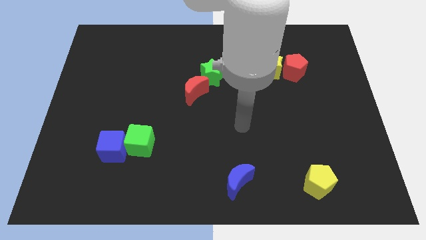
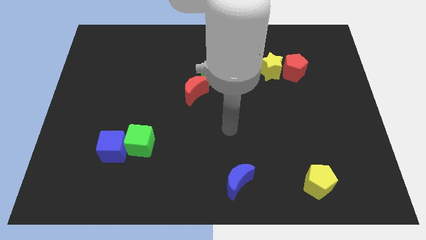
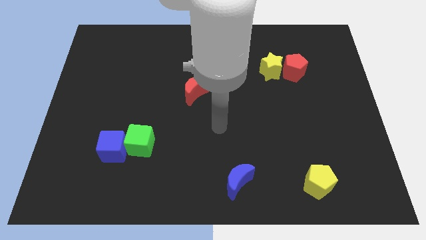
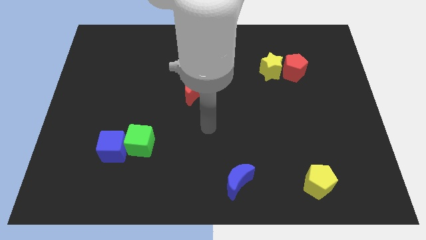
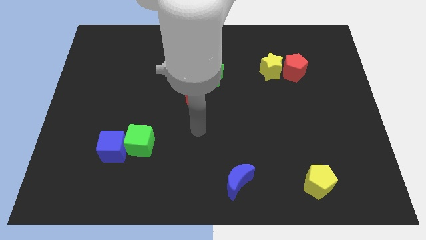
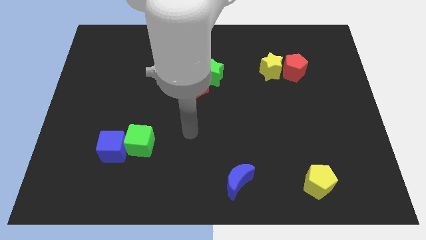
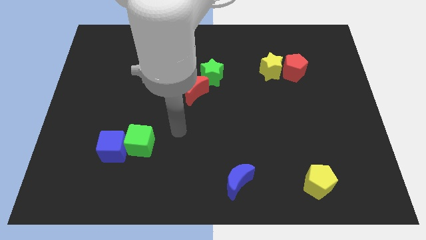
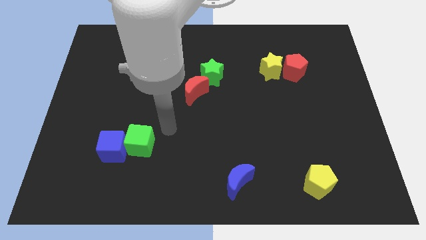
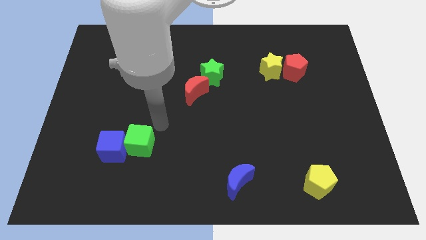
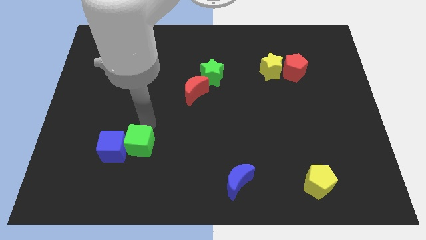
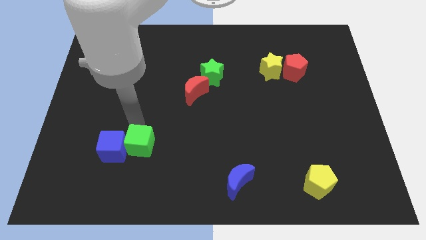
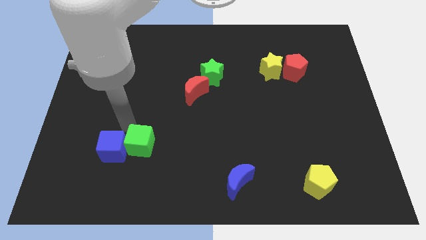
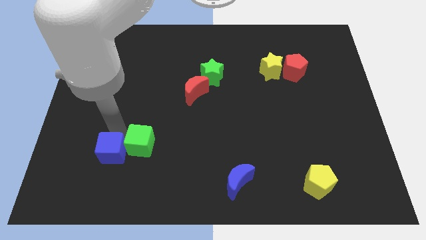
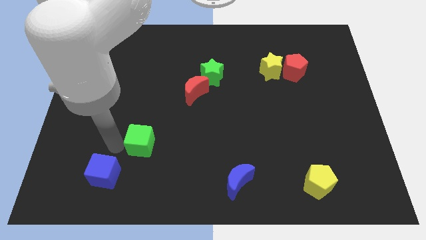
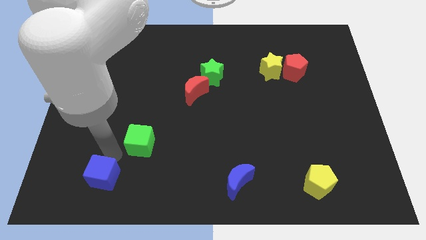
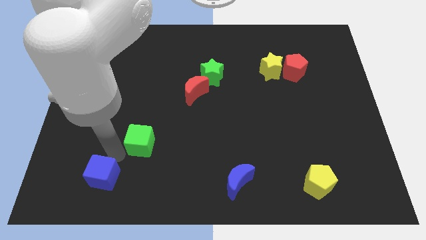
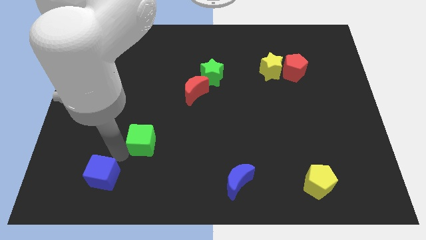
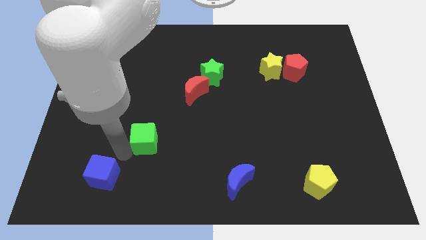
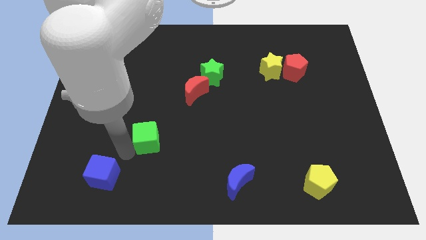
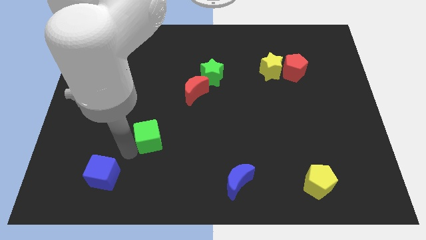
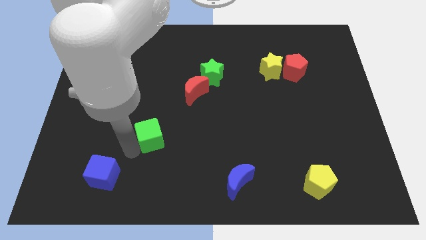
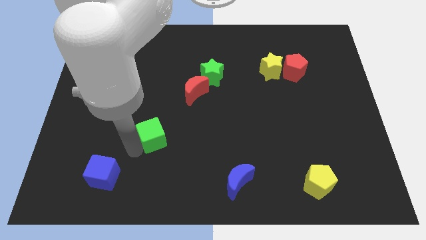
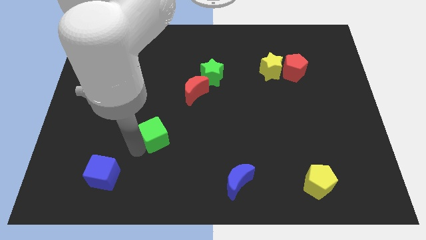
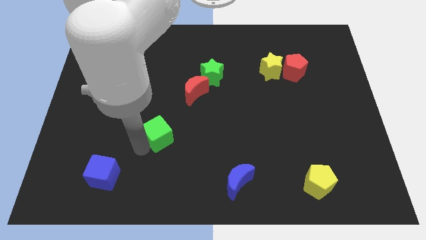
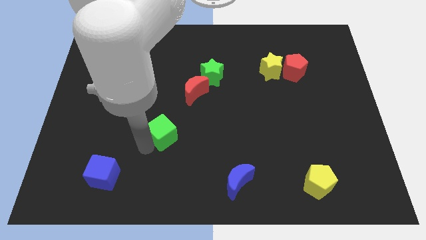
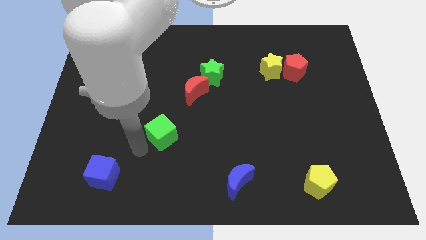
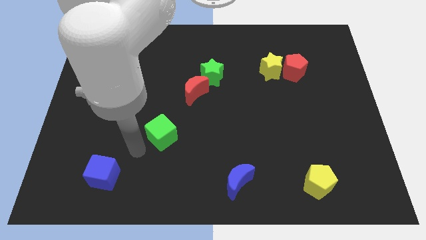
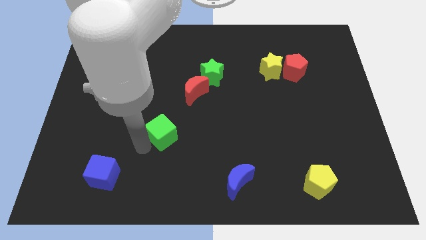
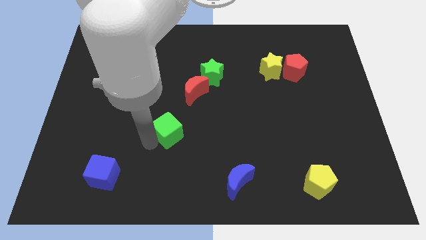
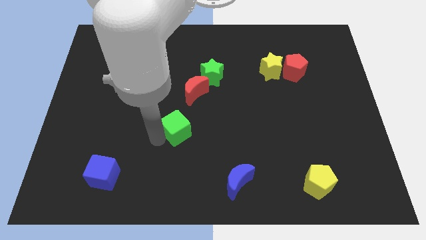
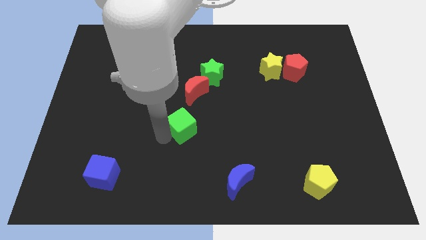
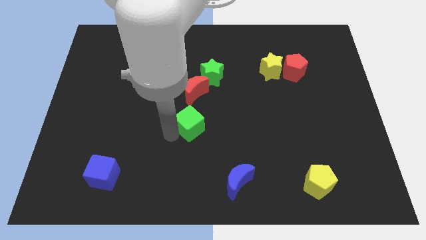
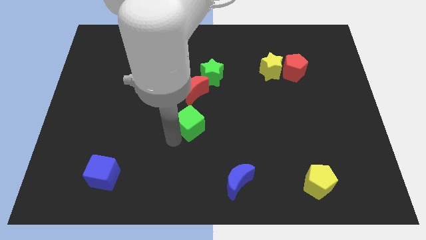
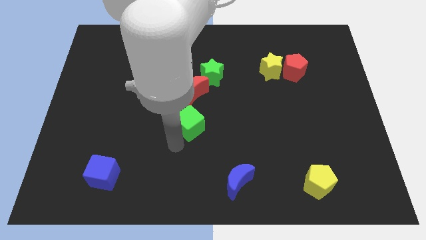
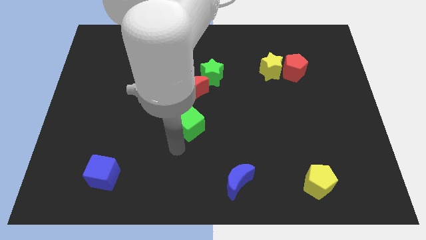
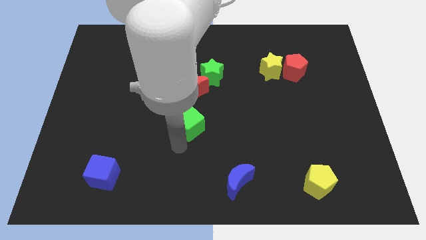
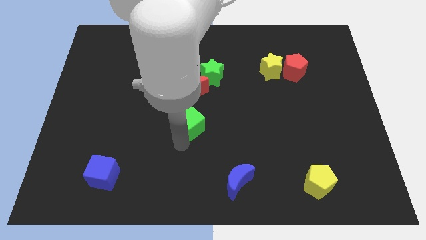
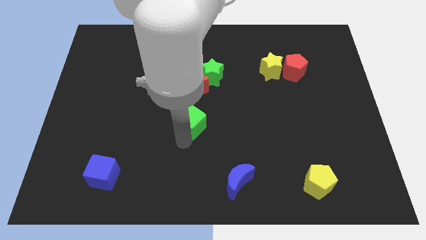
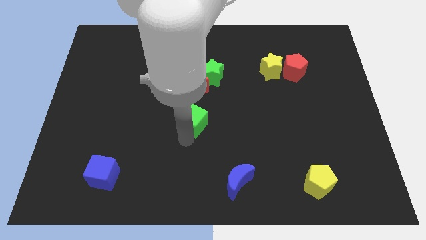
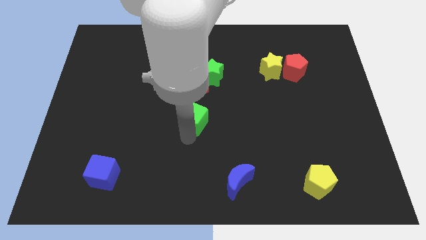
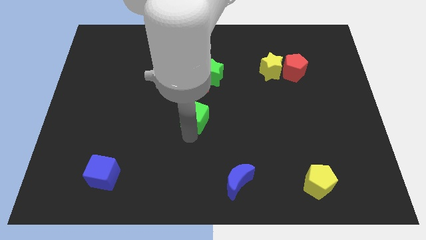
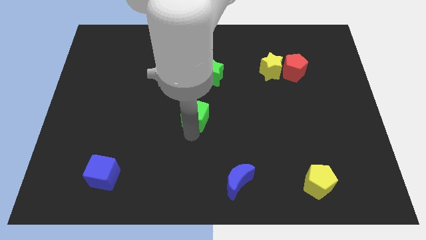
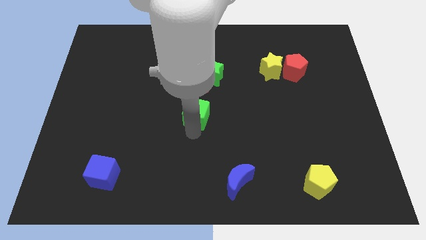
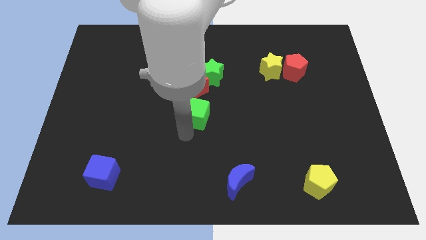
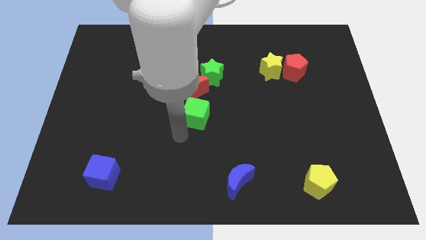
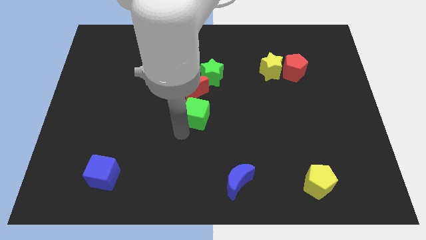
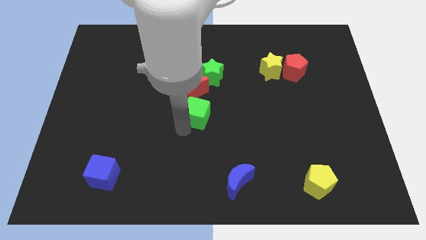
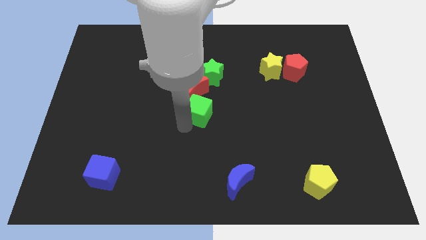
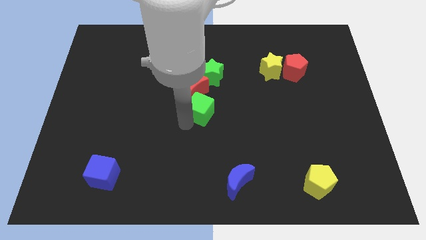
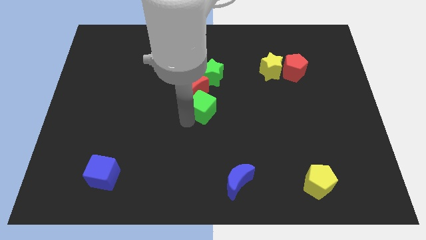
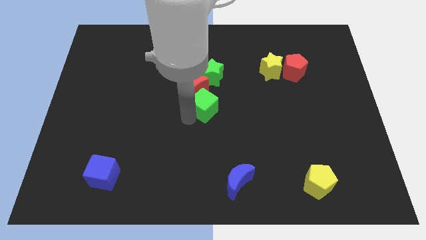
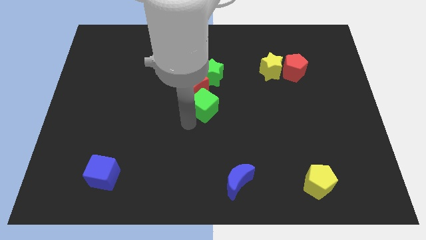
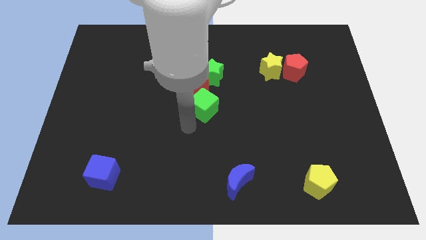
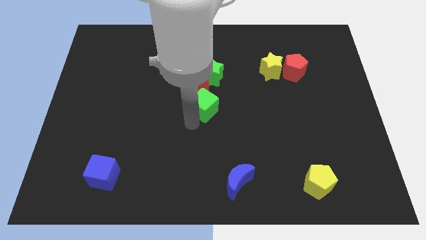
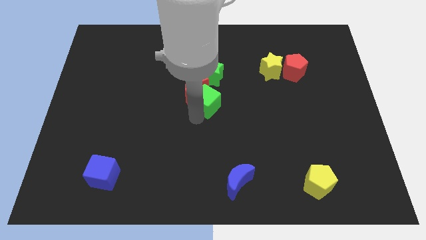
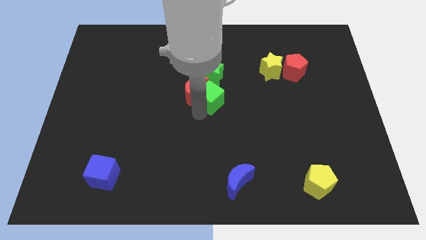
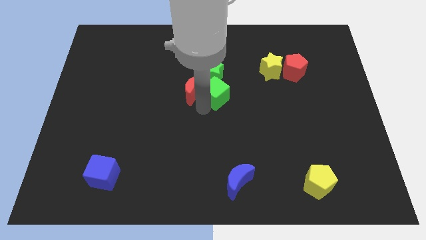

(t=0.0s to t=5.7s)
move the green cube diagonally upwards and to the right

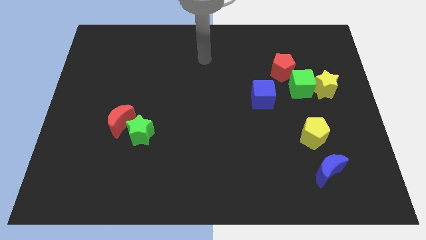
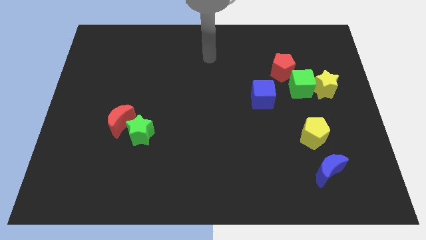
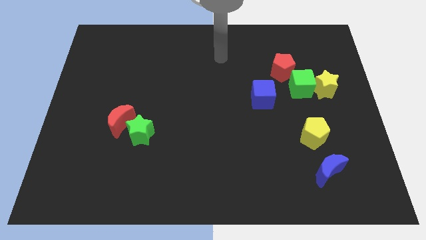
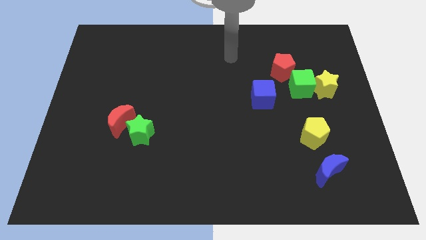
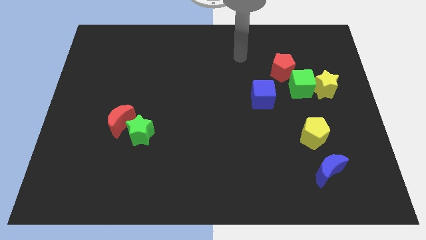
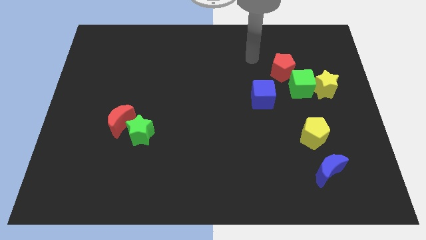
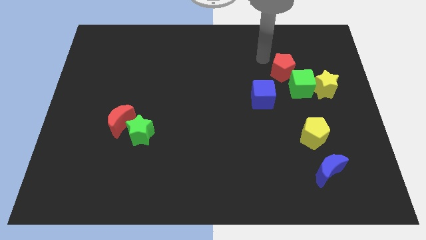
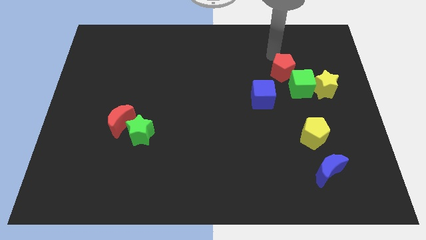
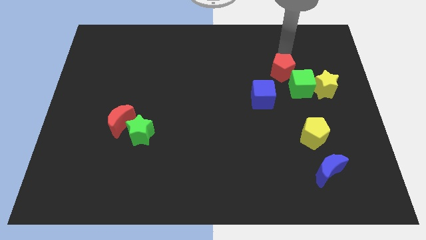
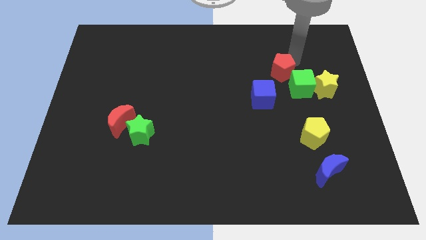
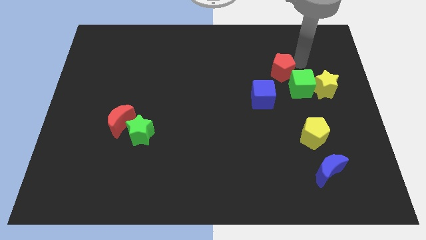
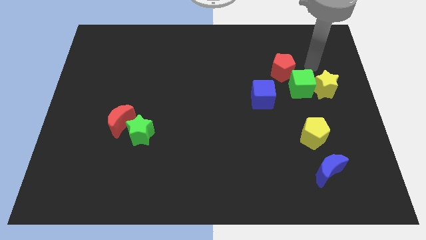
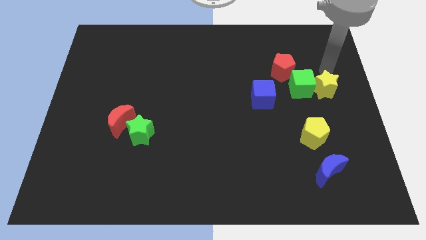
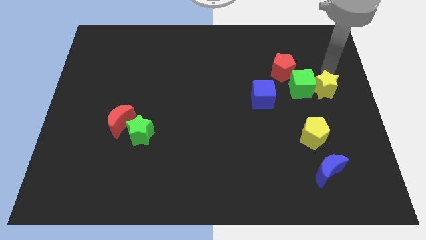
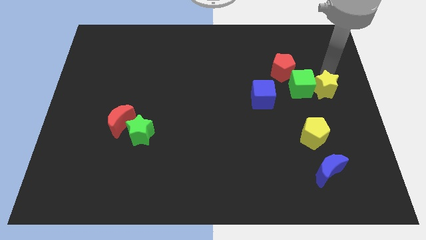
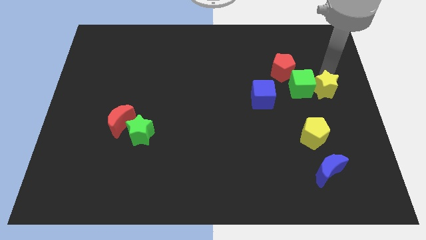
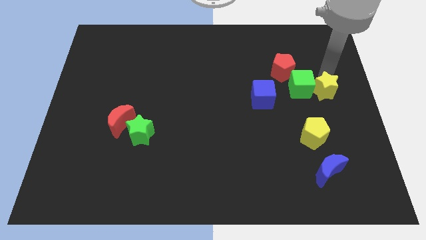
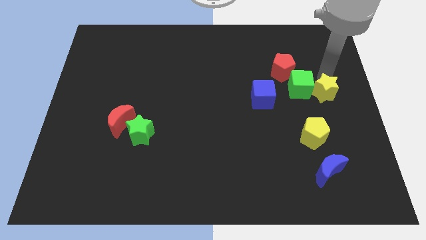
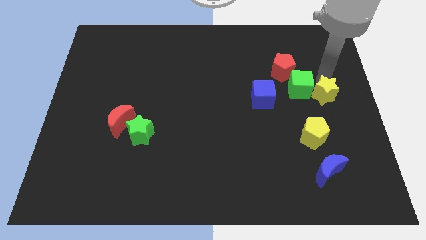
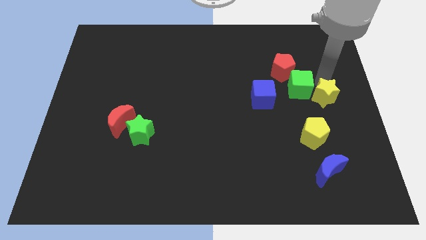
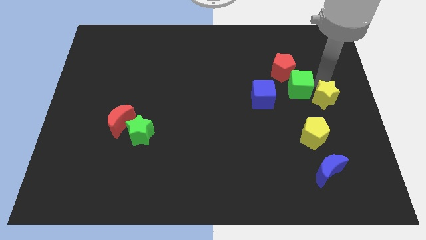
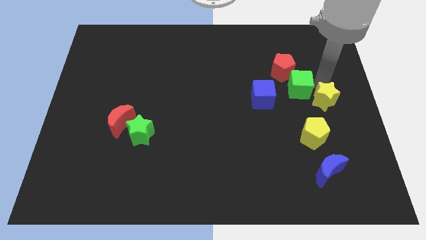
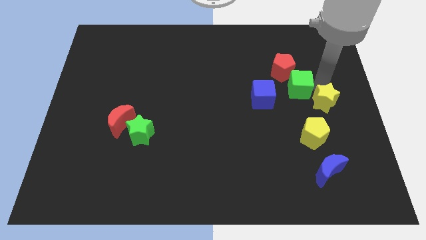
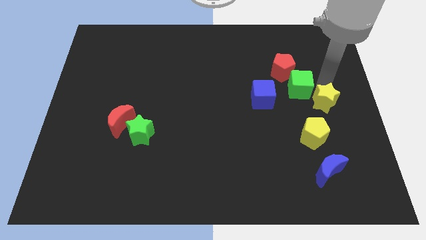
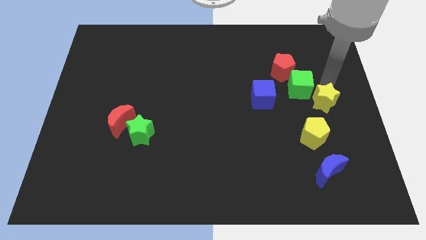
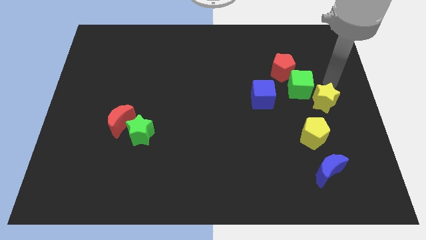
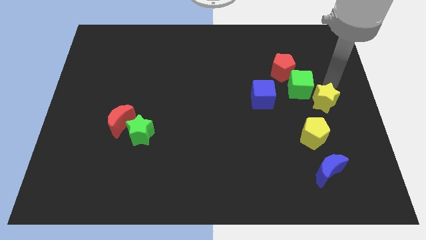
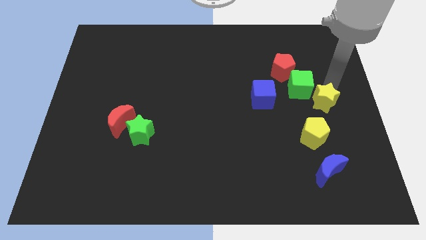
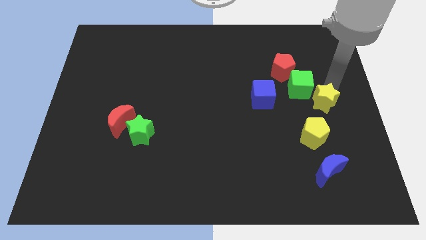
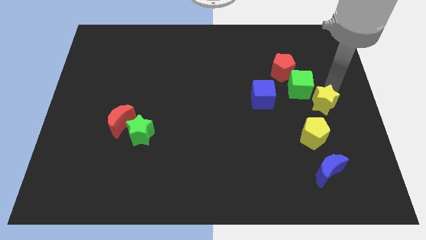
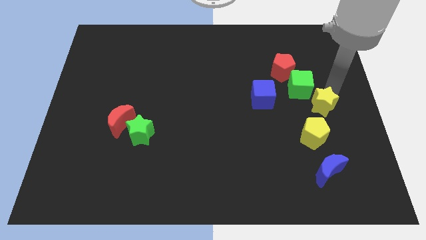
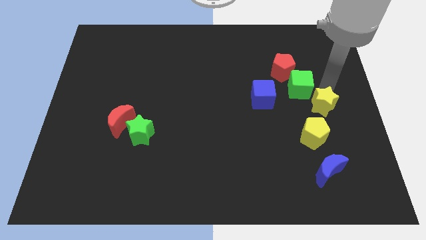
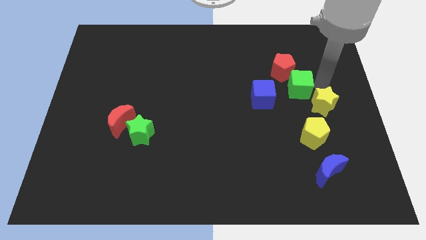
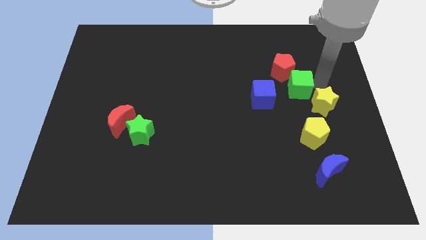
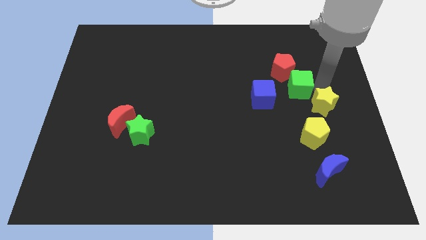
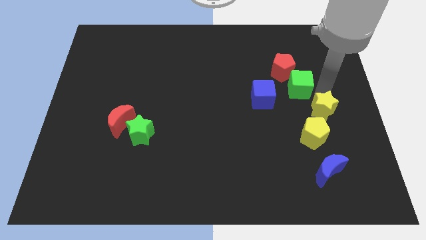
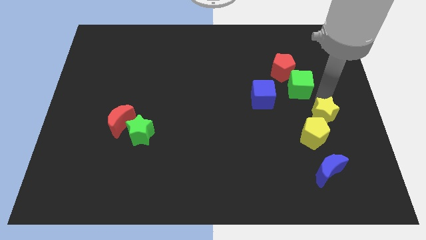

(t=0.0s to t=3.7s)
slide the yellow star slightly down
